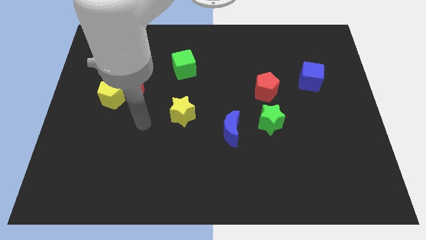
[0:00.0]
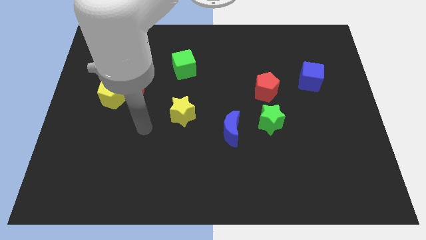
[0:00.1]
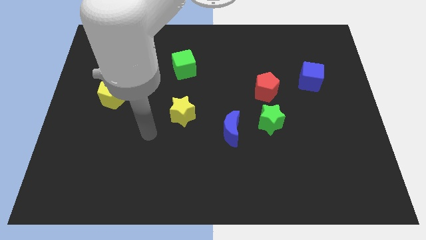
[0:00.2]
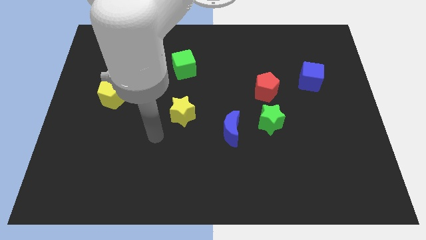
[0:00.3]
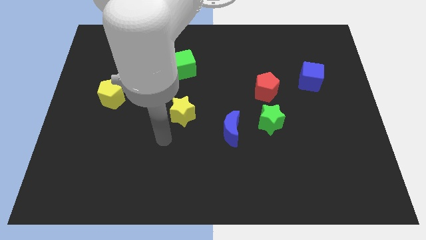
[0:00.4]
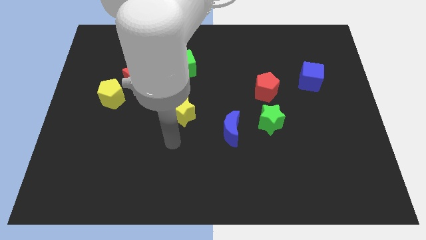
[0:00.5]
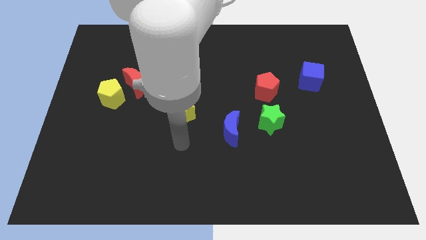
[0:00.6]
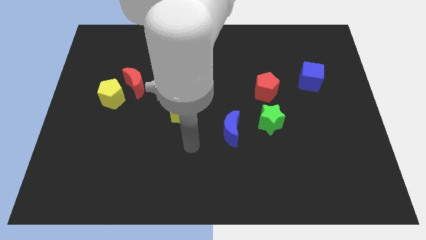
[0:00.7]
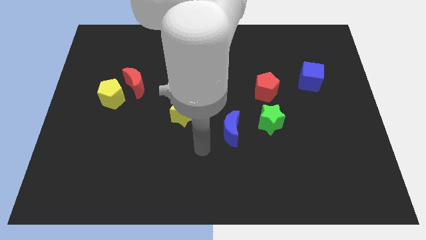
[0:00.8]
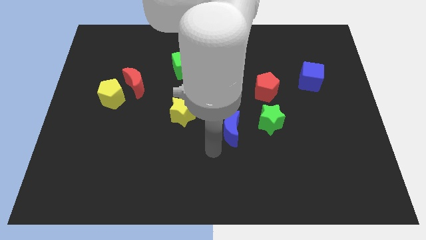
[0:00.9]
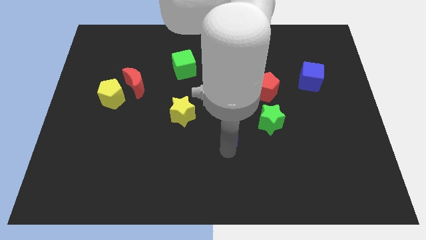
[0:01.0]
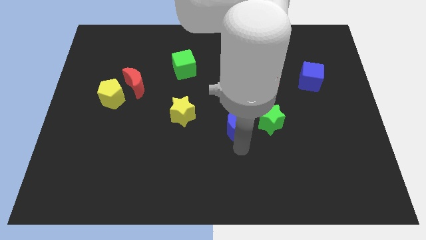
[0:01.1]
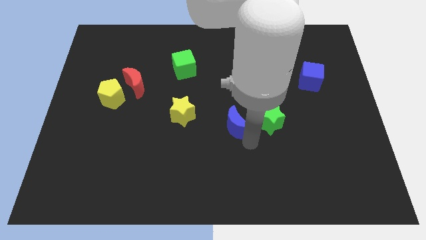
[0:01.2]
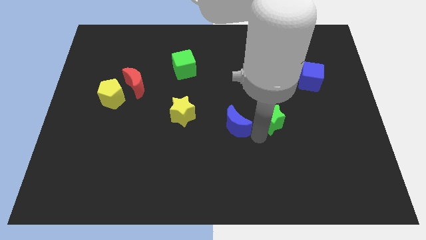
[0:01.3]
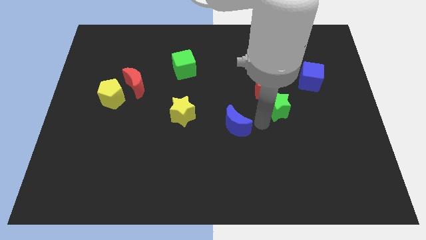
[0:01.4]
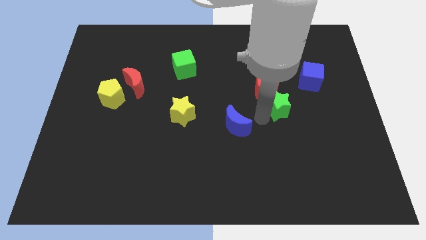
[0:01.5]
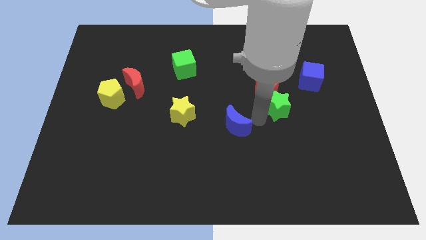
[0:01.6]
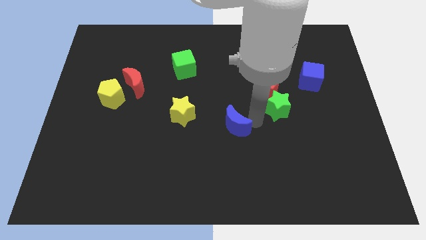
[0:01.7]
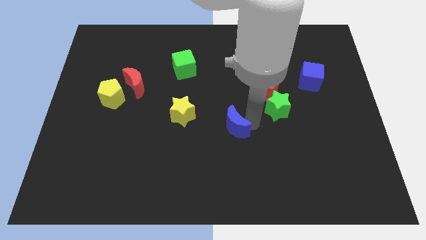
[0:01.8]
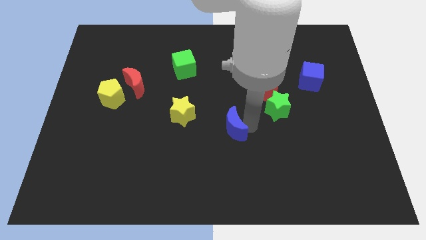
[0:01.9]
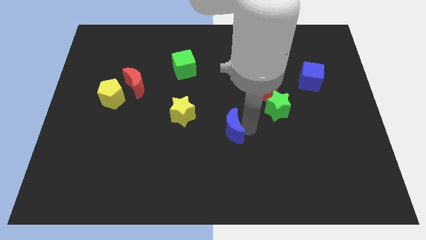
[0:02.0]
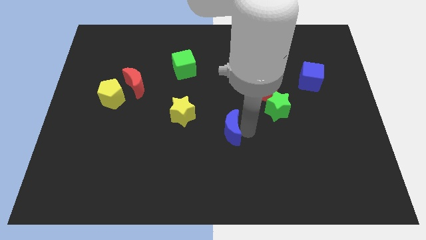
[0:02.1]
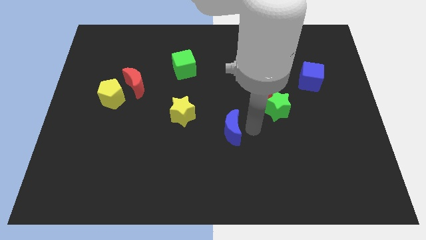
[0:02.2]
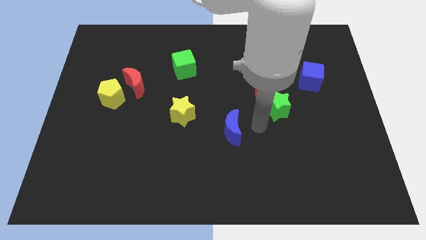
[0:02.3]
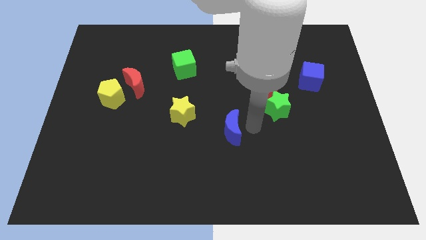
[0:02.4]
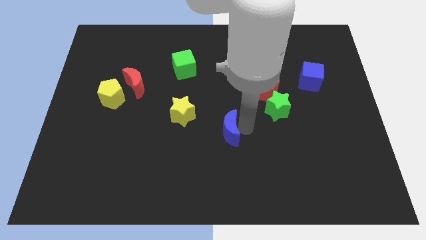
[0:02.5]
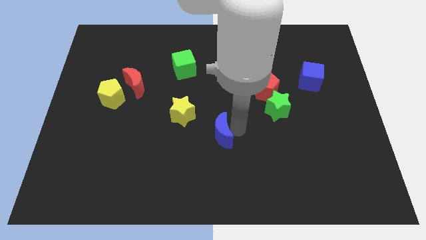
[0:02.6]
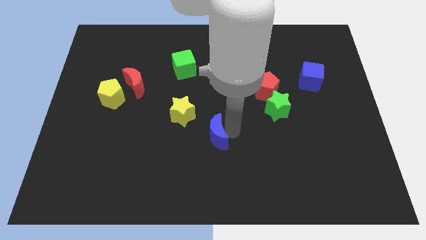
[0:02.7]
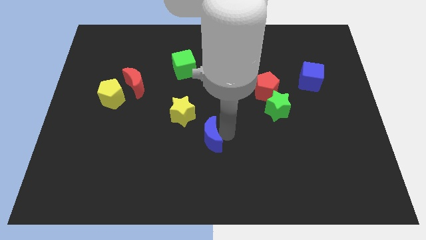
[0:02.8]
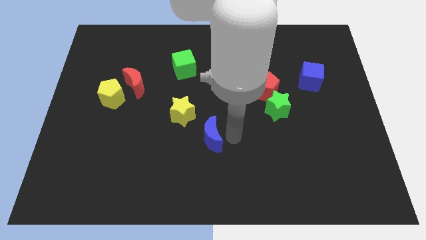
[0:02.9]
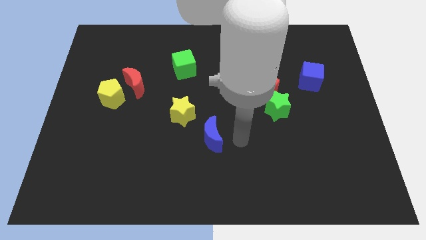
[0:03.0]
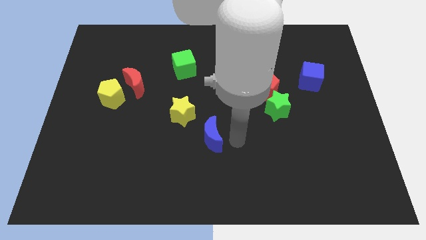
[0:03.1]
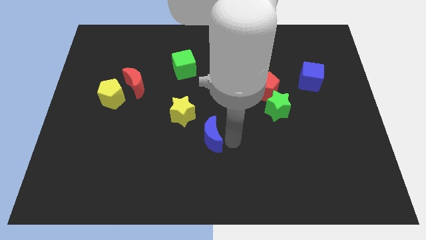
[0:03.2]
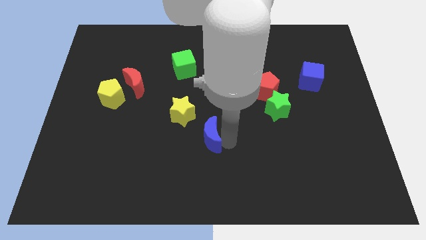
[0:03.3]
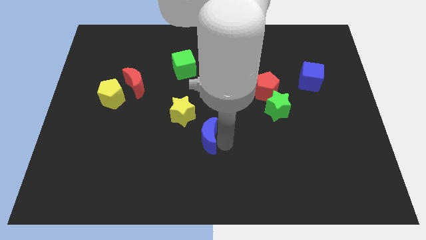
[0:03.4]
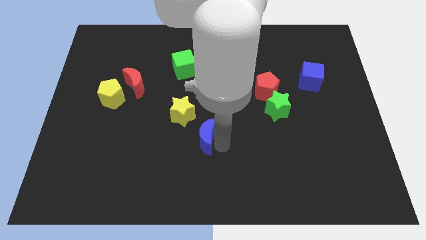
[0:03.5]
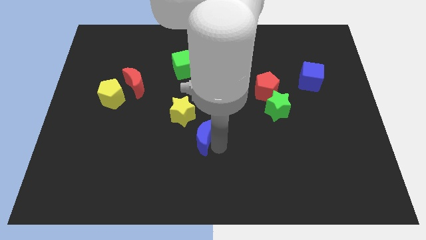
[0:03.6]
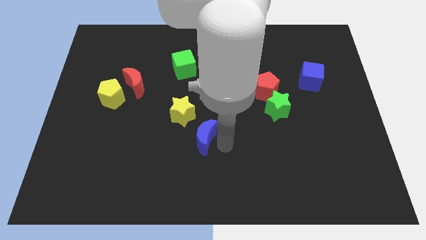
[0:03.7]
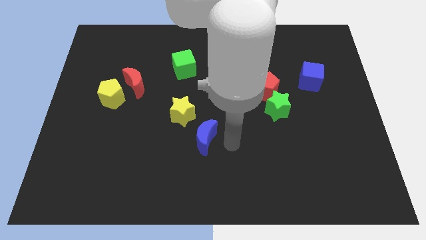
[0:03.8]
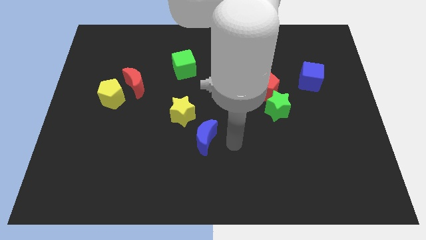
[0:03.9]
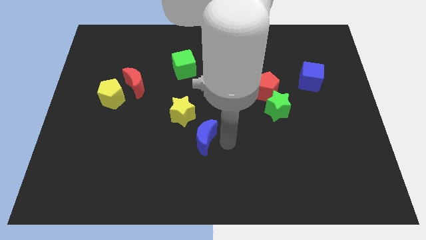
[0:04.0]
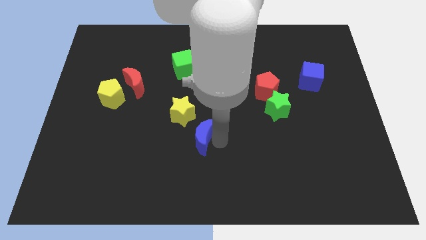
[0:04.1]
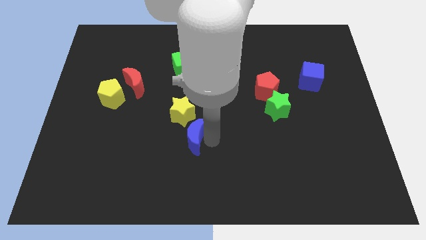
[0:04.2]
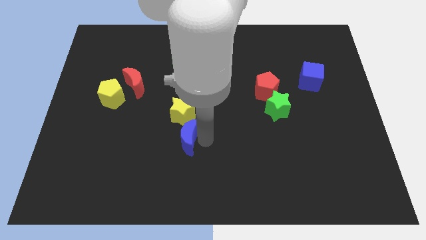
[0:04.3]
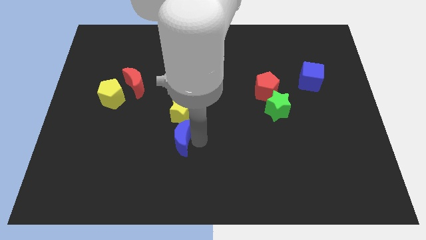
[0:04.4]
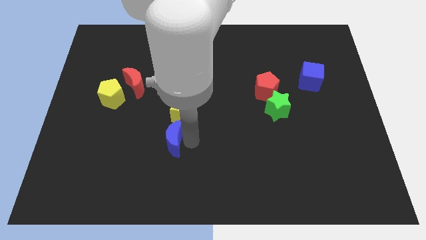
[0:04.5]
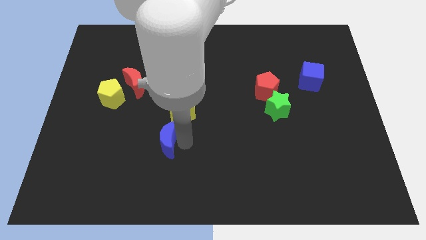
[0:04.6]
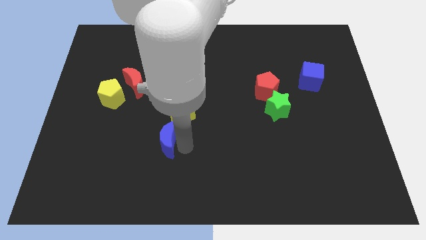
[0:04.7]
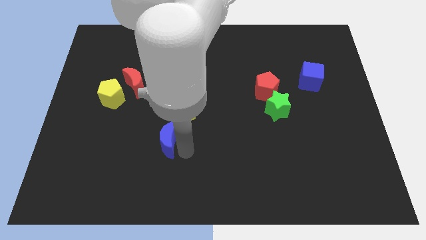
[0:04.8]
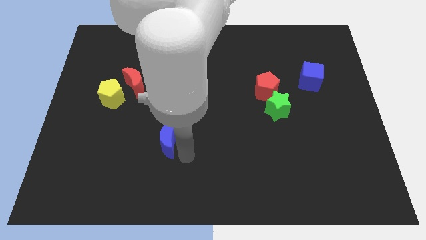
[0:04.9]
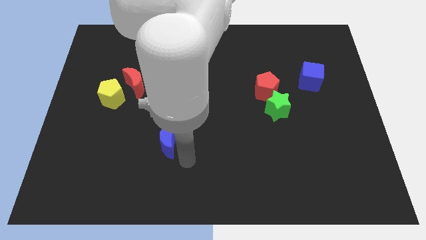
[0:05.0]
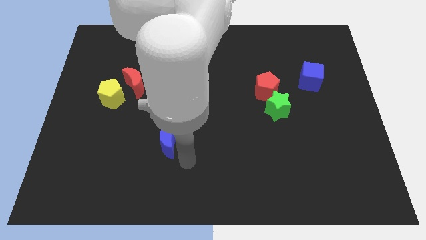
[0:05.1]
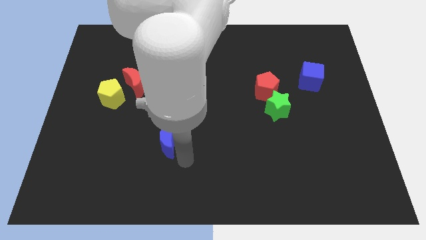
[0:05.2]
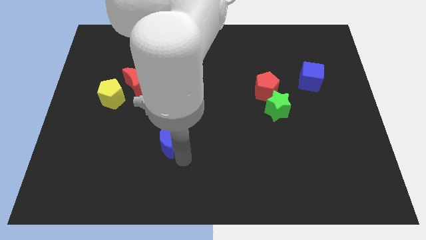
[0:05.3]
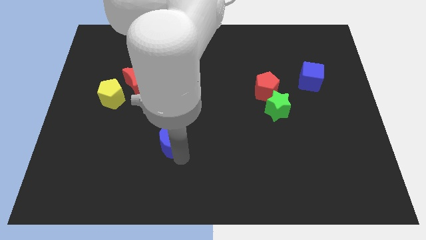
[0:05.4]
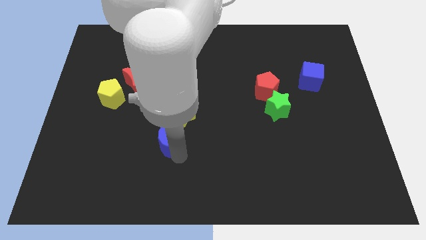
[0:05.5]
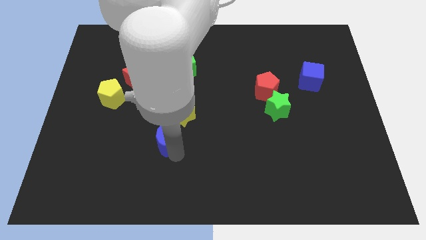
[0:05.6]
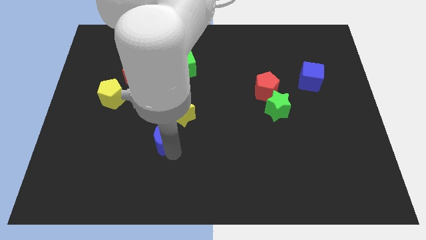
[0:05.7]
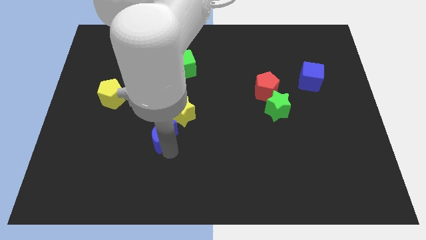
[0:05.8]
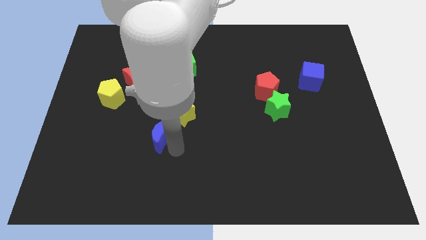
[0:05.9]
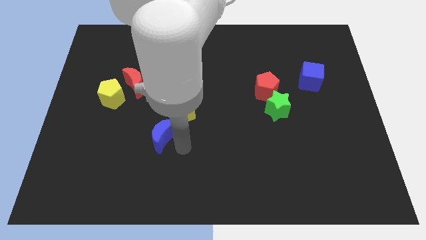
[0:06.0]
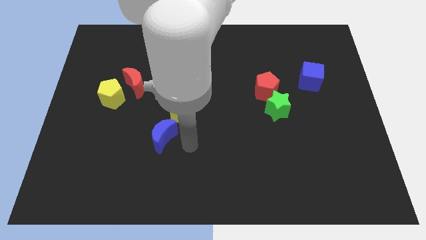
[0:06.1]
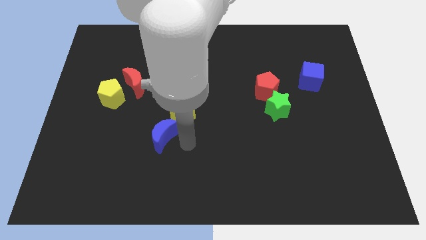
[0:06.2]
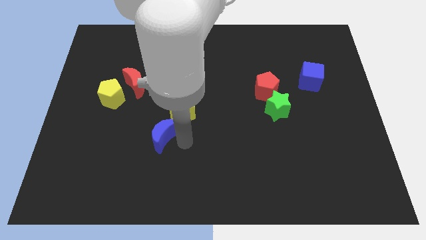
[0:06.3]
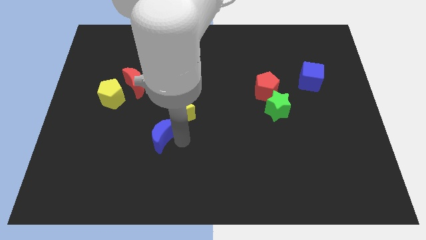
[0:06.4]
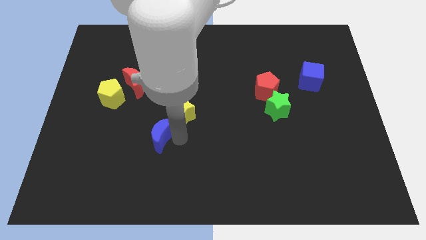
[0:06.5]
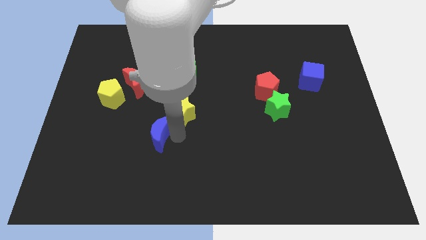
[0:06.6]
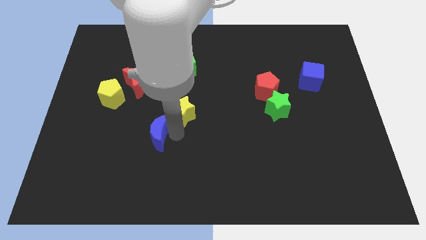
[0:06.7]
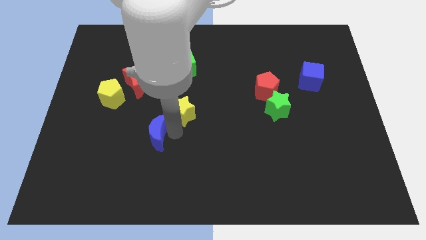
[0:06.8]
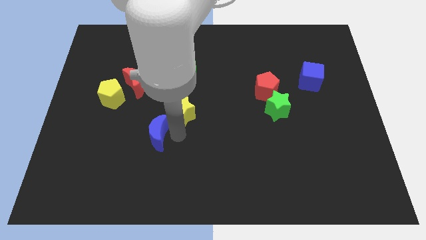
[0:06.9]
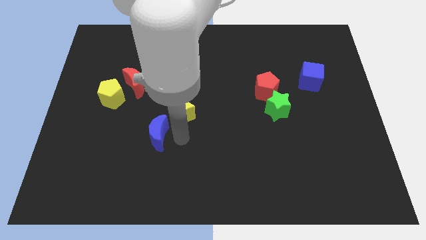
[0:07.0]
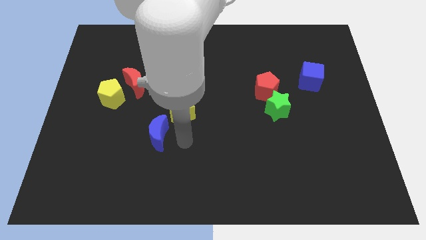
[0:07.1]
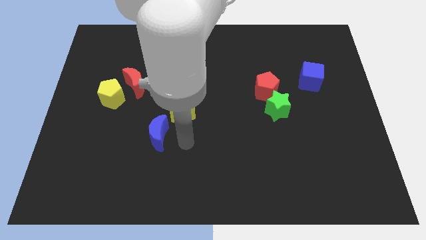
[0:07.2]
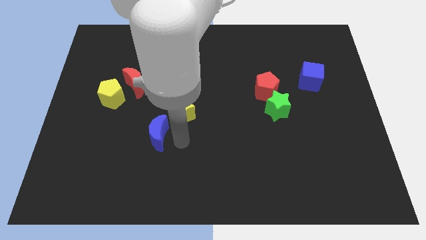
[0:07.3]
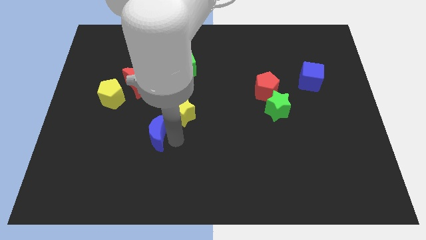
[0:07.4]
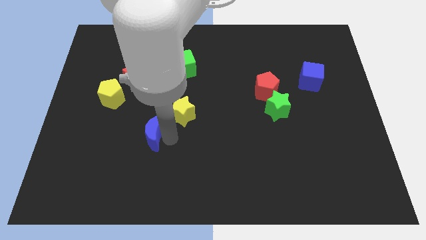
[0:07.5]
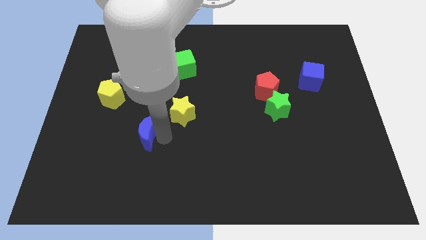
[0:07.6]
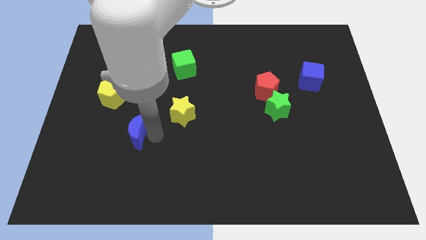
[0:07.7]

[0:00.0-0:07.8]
slide the blue moon to the left
